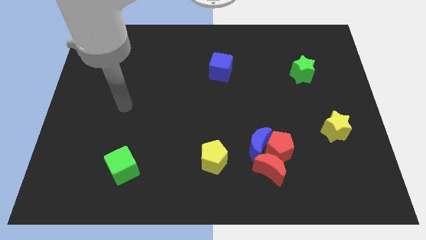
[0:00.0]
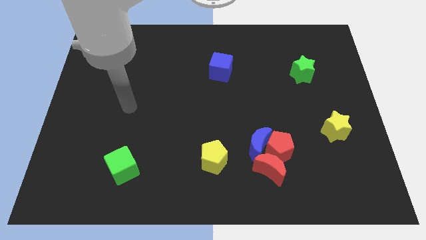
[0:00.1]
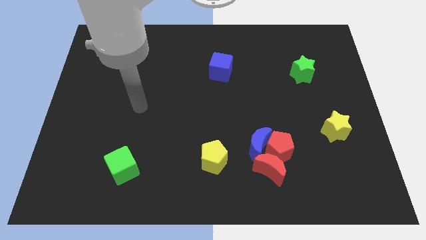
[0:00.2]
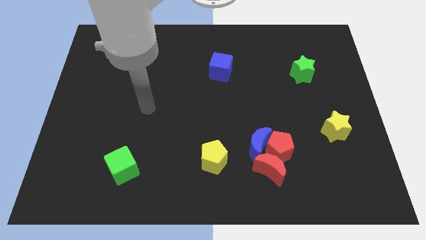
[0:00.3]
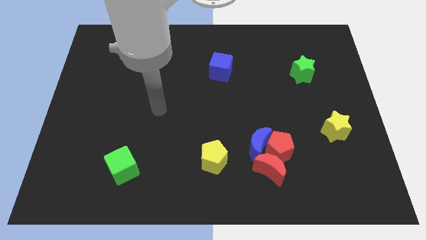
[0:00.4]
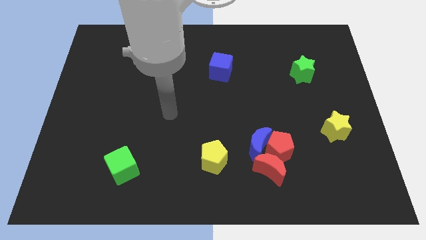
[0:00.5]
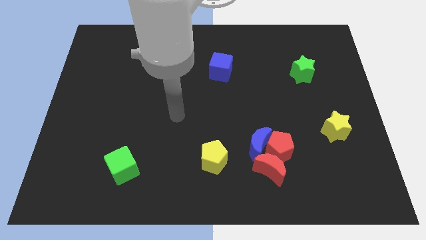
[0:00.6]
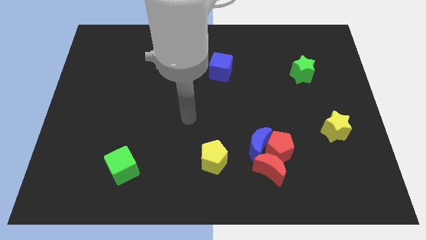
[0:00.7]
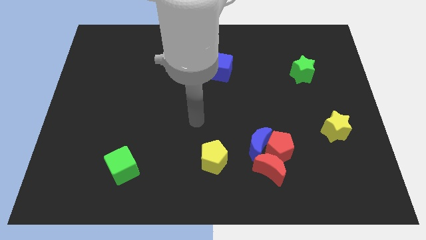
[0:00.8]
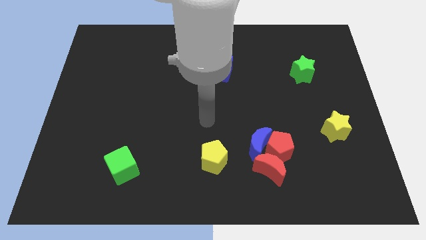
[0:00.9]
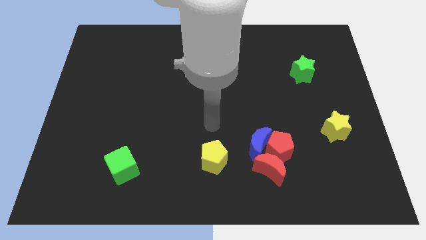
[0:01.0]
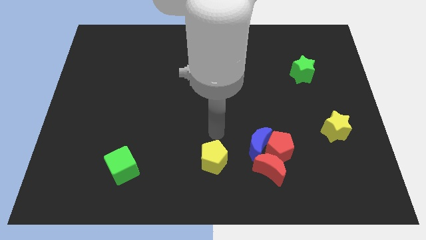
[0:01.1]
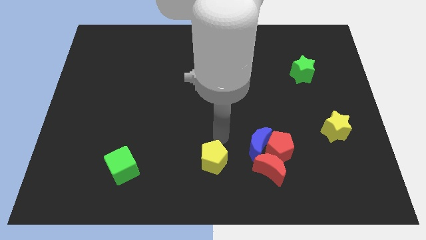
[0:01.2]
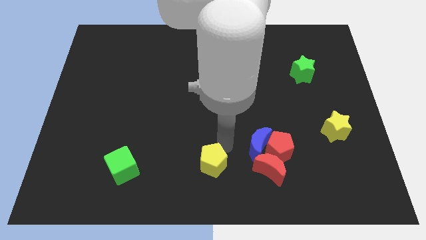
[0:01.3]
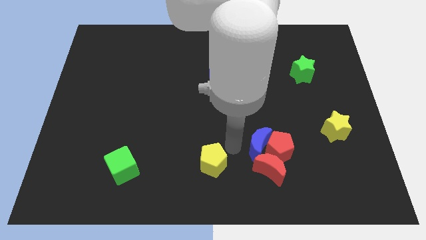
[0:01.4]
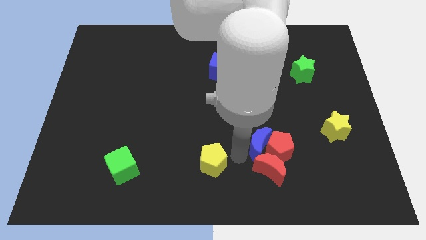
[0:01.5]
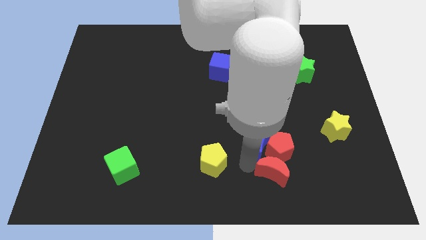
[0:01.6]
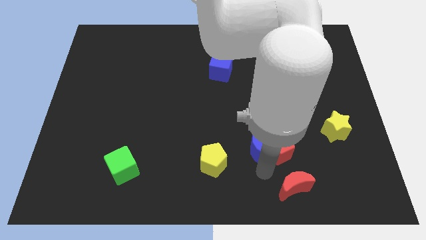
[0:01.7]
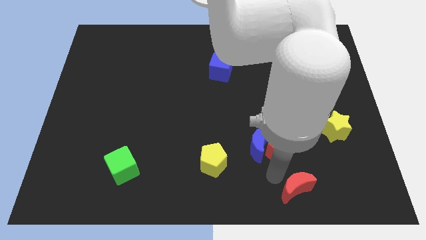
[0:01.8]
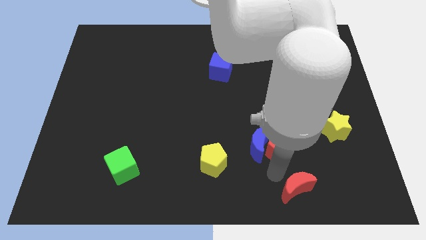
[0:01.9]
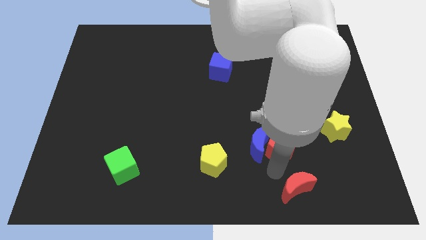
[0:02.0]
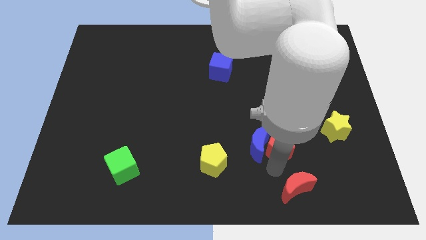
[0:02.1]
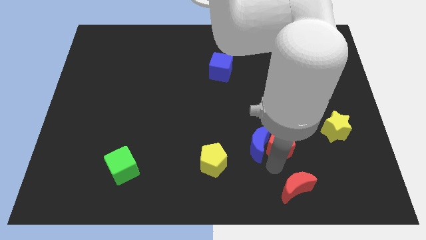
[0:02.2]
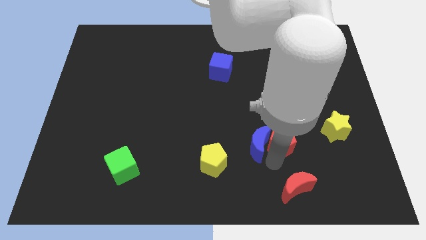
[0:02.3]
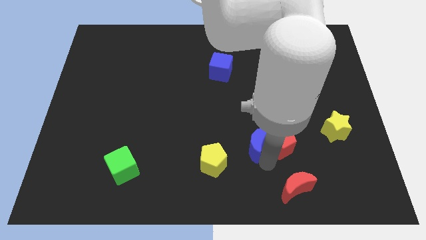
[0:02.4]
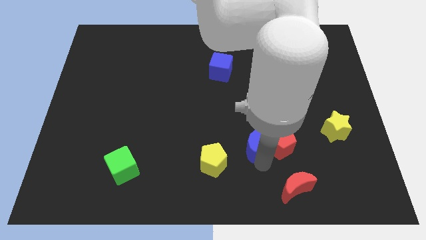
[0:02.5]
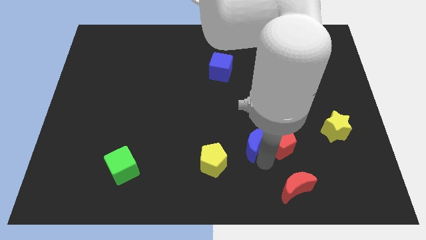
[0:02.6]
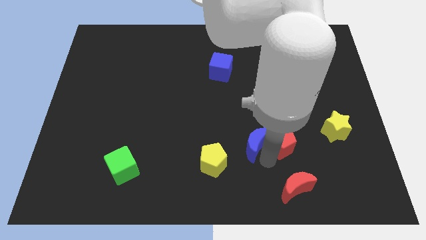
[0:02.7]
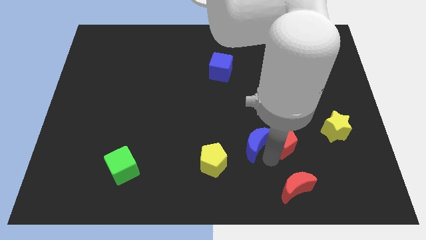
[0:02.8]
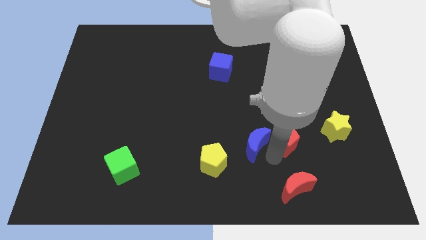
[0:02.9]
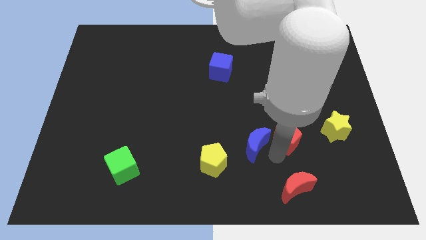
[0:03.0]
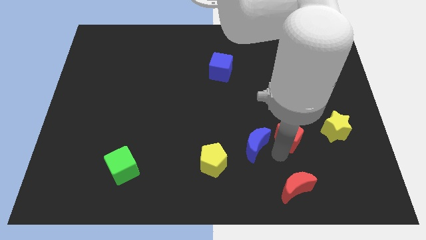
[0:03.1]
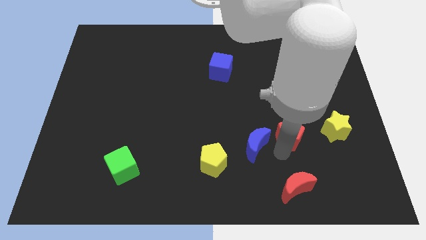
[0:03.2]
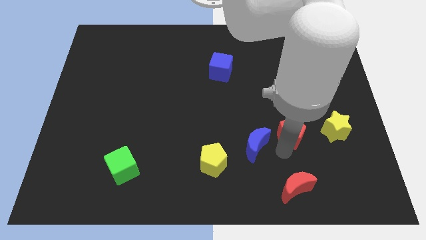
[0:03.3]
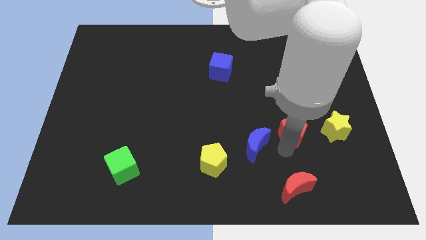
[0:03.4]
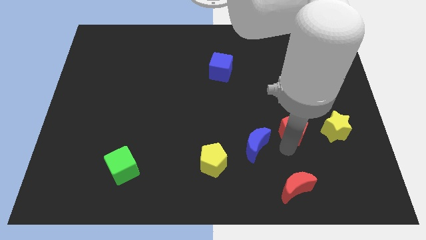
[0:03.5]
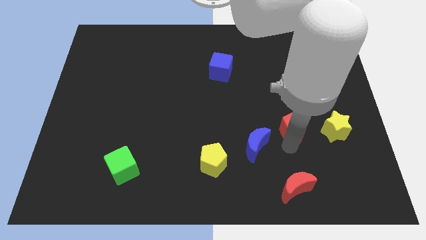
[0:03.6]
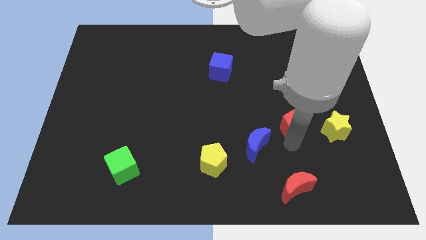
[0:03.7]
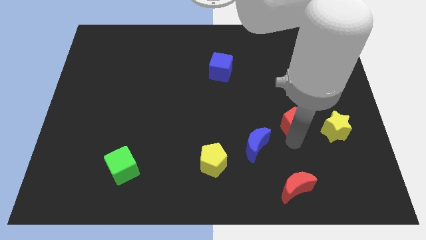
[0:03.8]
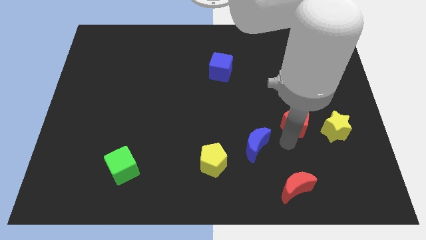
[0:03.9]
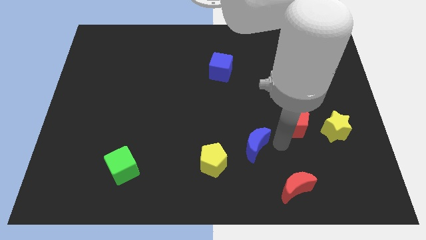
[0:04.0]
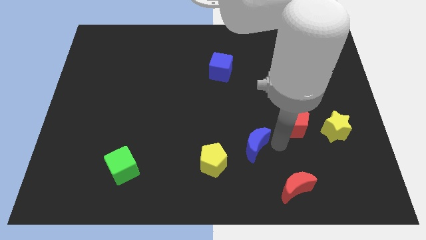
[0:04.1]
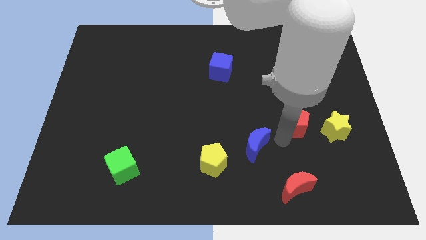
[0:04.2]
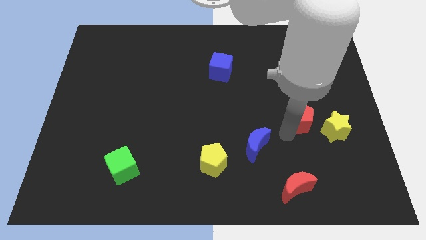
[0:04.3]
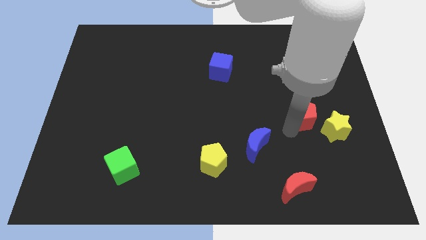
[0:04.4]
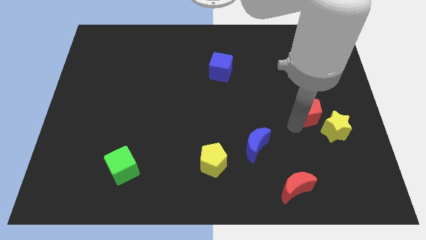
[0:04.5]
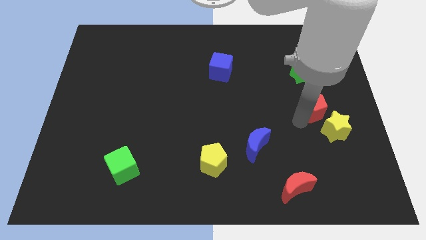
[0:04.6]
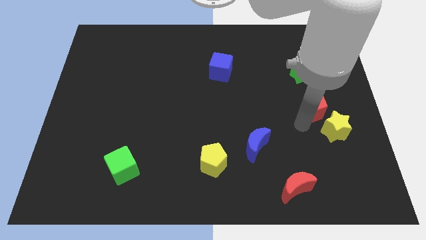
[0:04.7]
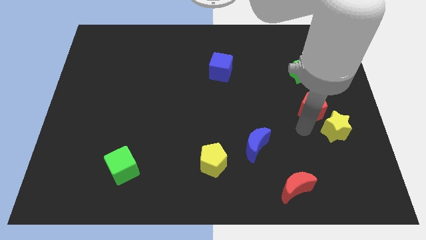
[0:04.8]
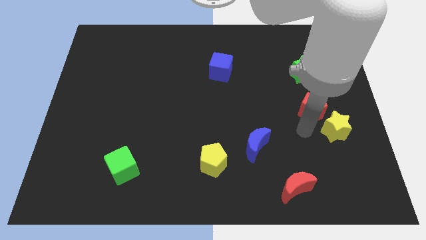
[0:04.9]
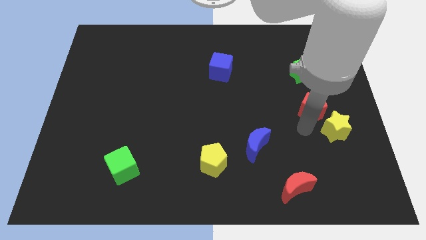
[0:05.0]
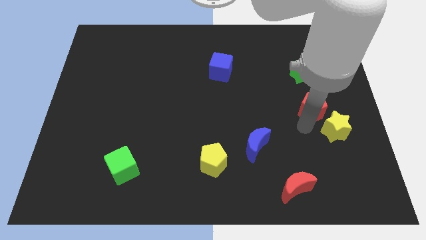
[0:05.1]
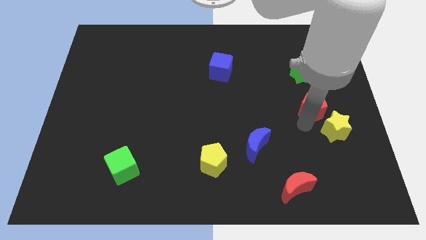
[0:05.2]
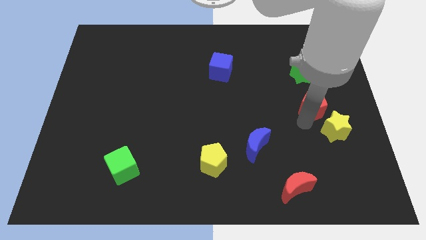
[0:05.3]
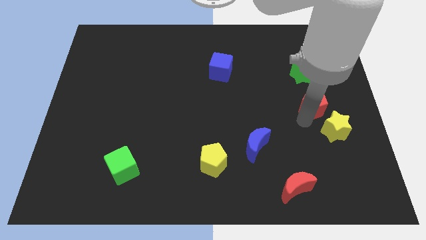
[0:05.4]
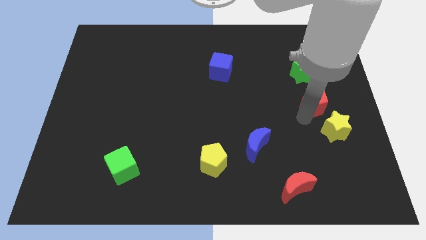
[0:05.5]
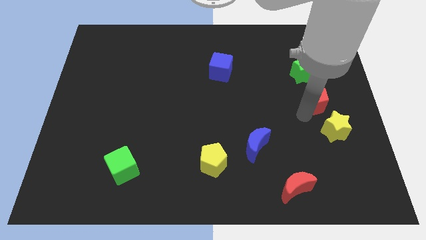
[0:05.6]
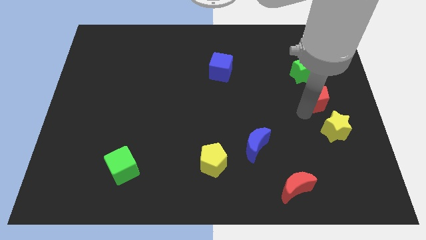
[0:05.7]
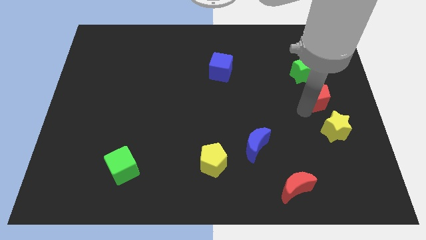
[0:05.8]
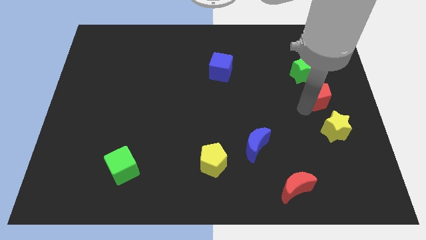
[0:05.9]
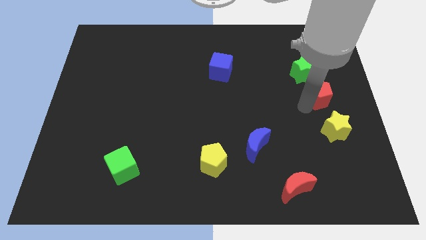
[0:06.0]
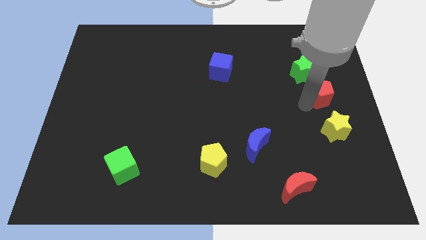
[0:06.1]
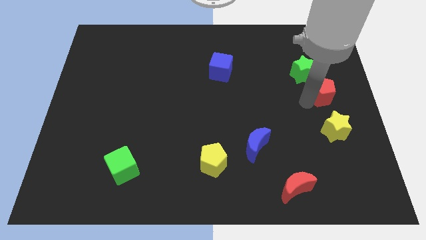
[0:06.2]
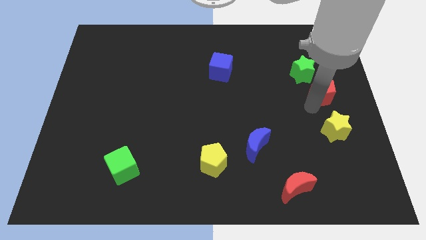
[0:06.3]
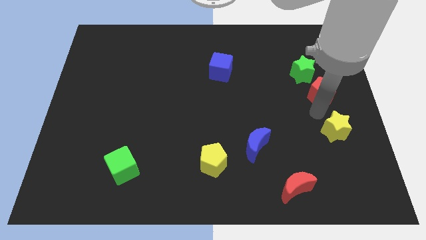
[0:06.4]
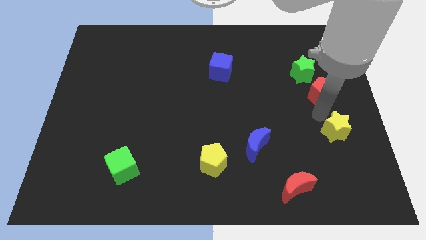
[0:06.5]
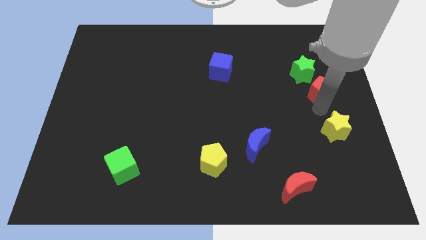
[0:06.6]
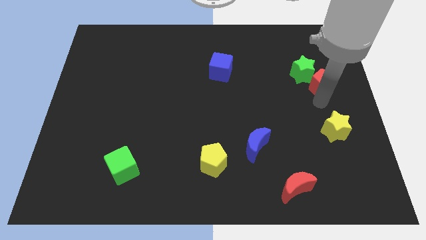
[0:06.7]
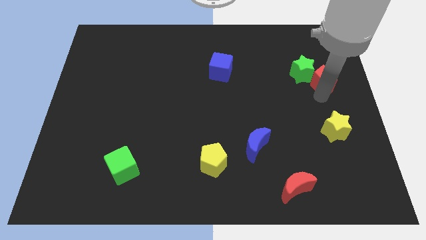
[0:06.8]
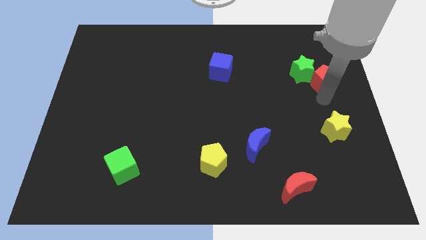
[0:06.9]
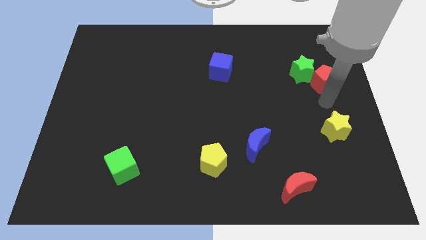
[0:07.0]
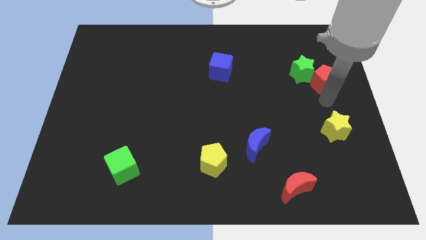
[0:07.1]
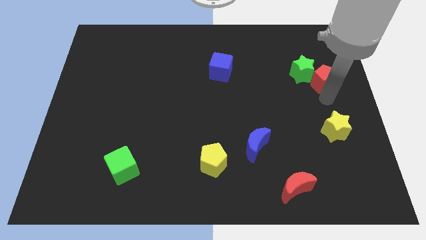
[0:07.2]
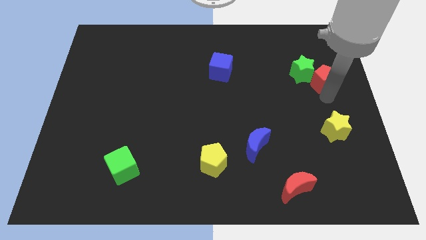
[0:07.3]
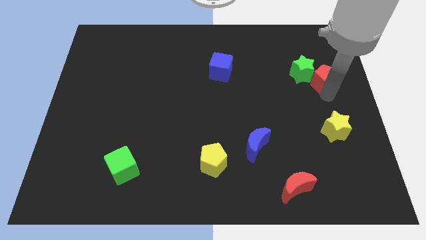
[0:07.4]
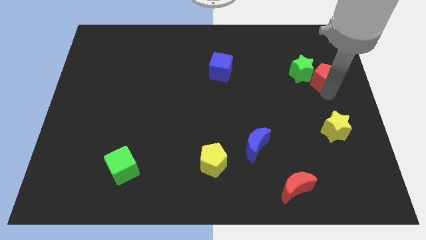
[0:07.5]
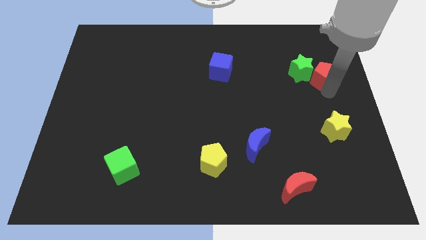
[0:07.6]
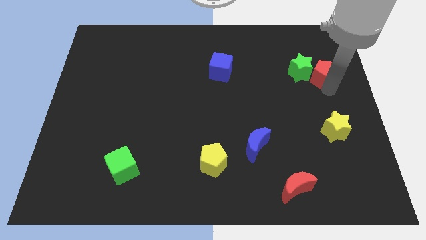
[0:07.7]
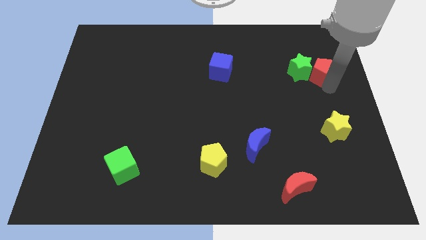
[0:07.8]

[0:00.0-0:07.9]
slide the red pentagon to the top right side of the green star
